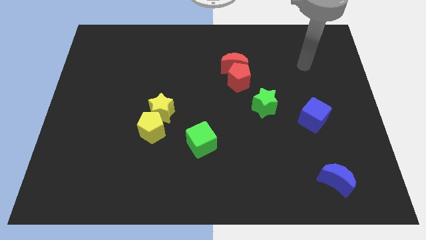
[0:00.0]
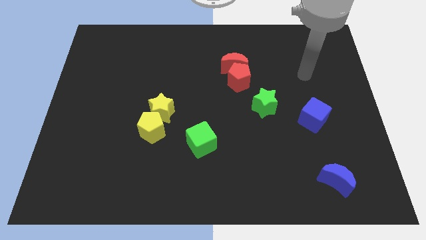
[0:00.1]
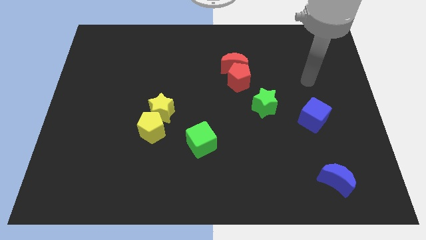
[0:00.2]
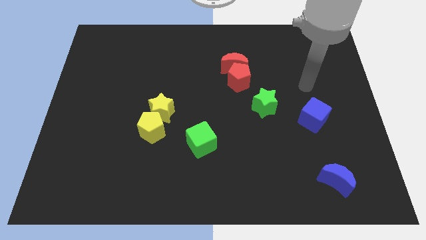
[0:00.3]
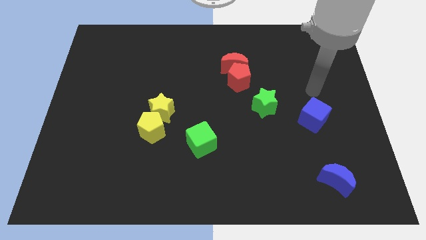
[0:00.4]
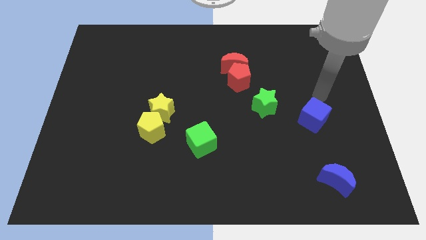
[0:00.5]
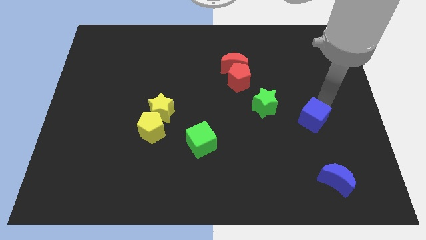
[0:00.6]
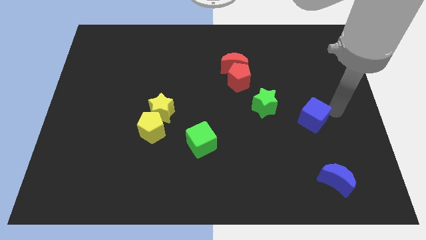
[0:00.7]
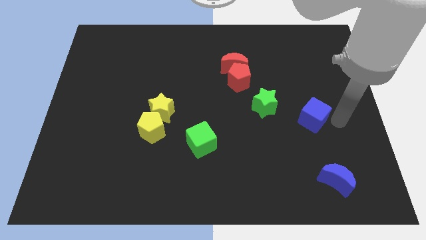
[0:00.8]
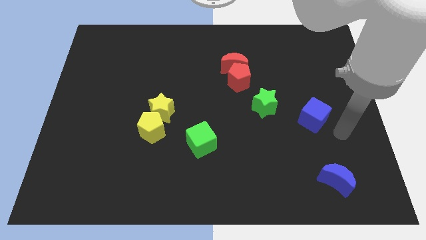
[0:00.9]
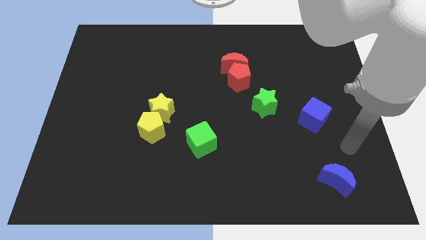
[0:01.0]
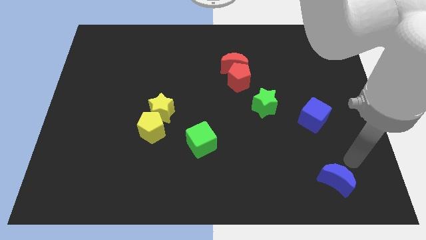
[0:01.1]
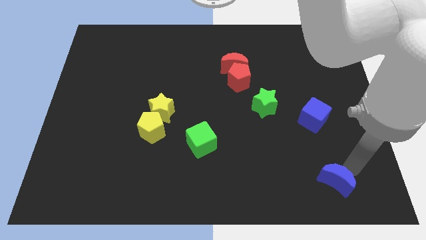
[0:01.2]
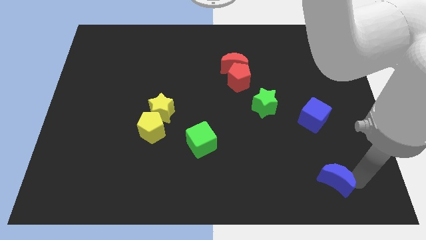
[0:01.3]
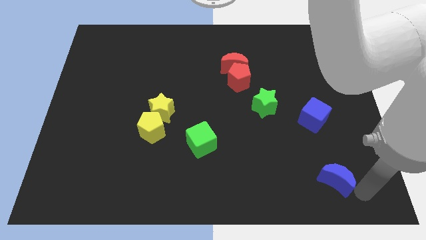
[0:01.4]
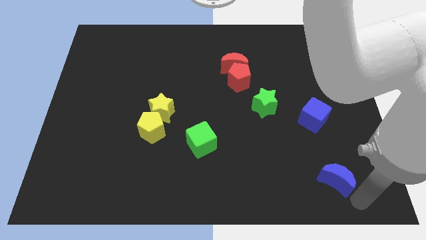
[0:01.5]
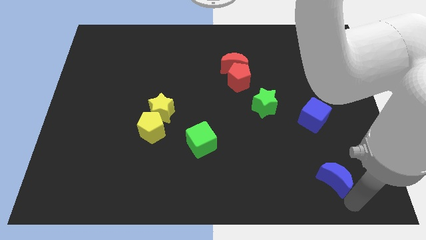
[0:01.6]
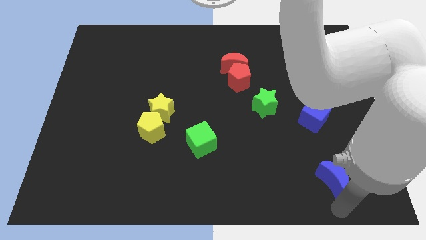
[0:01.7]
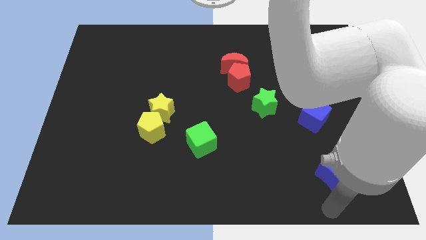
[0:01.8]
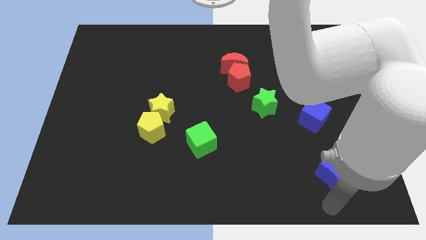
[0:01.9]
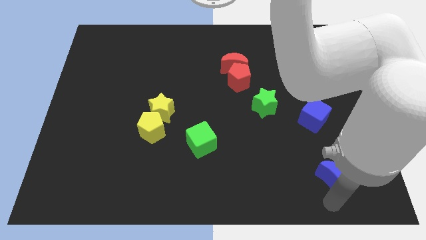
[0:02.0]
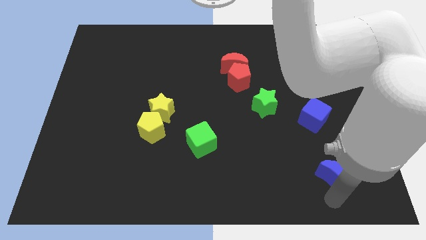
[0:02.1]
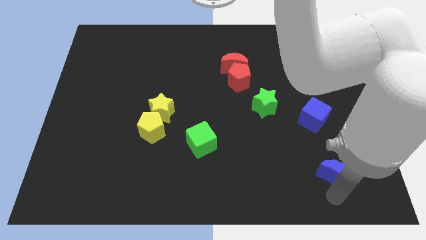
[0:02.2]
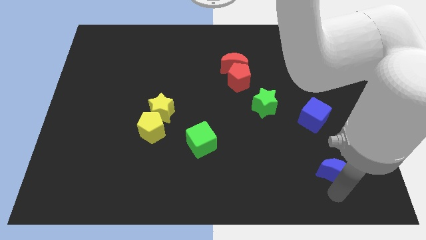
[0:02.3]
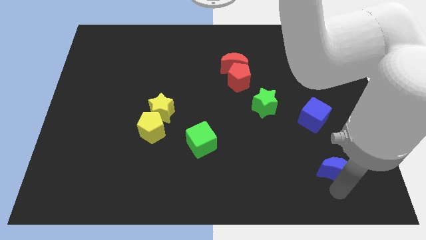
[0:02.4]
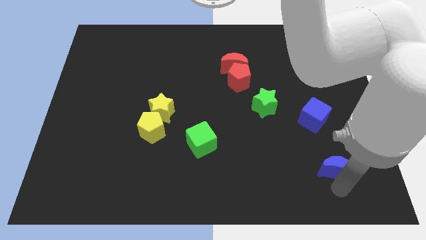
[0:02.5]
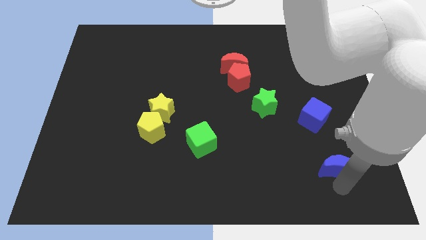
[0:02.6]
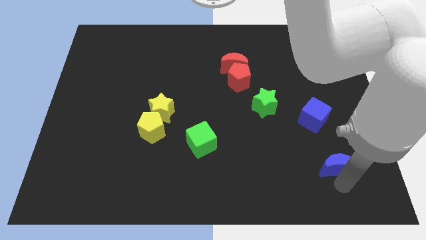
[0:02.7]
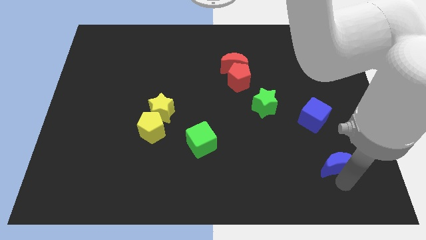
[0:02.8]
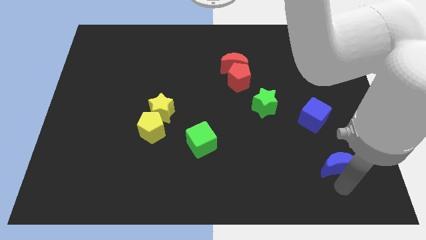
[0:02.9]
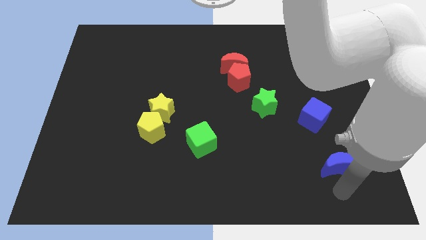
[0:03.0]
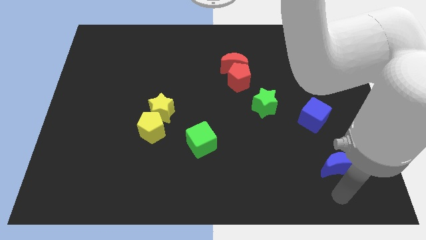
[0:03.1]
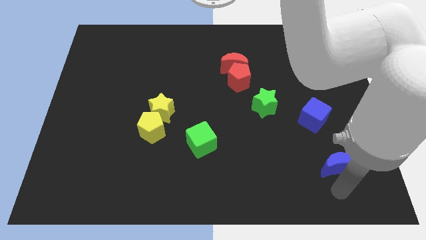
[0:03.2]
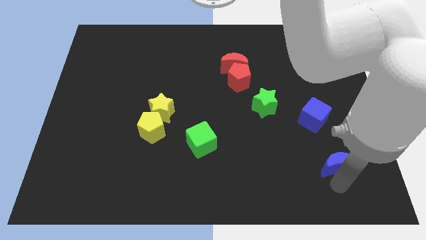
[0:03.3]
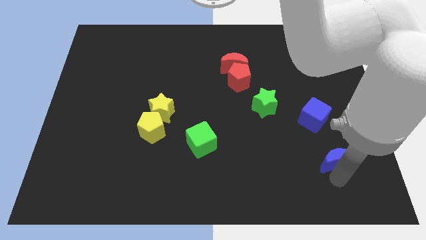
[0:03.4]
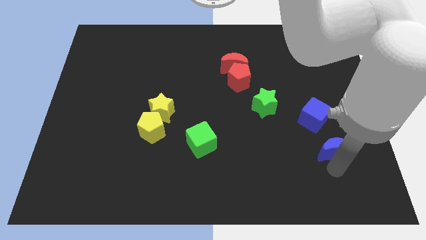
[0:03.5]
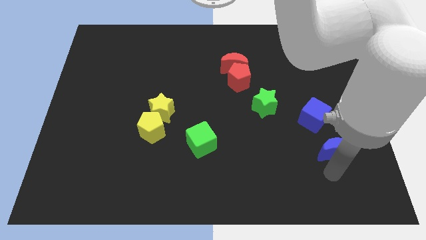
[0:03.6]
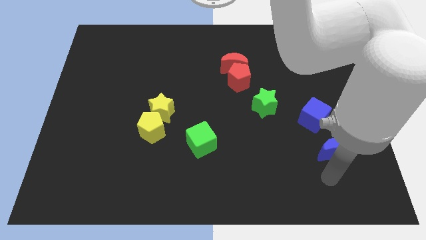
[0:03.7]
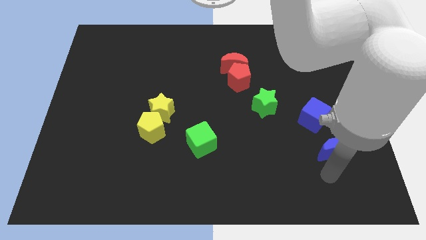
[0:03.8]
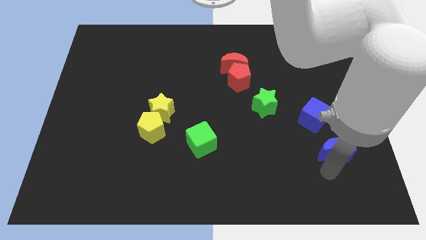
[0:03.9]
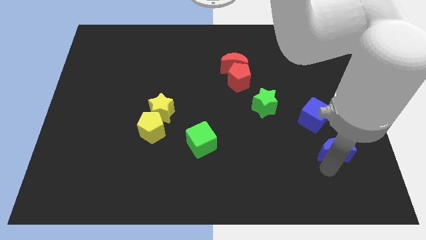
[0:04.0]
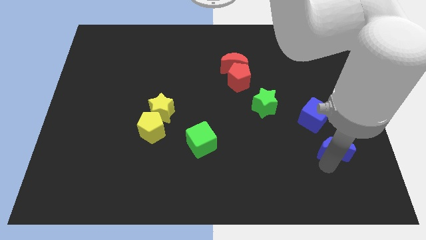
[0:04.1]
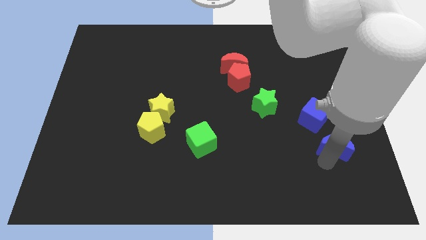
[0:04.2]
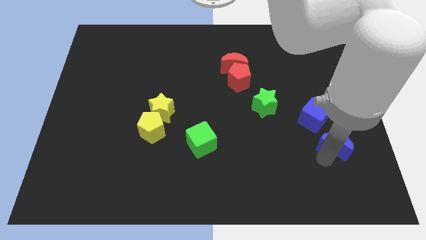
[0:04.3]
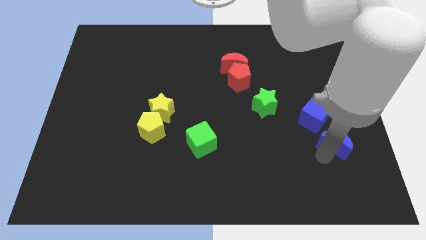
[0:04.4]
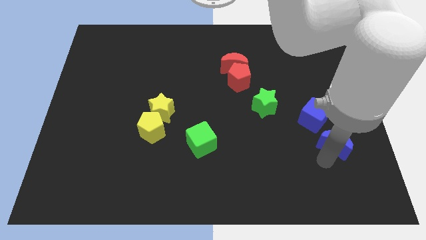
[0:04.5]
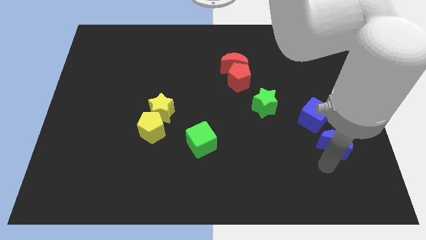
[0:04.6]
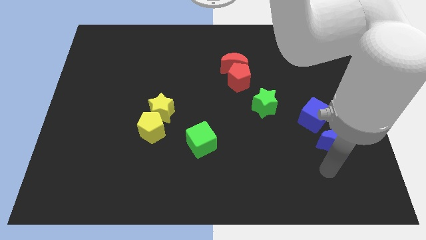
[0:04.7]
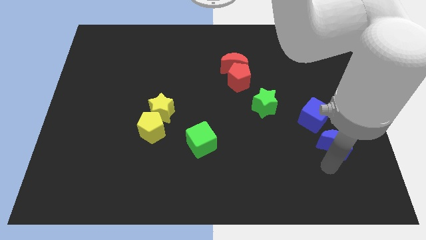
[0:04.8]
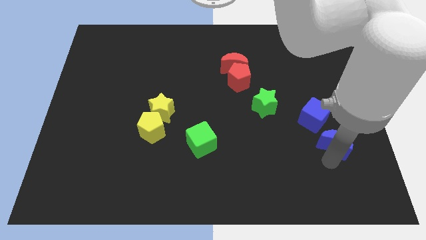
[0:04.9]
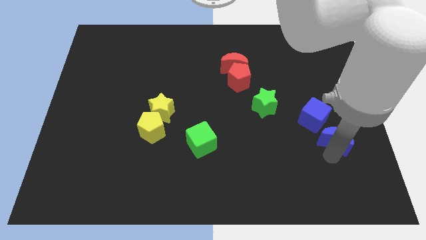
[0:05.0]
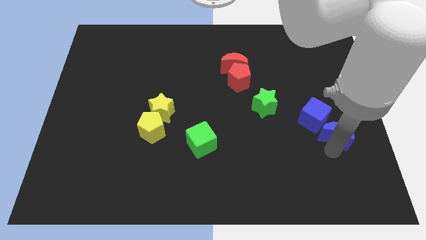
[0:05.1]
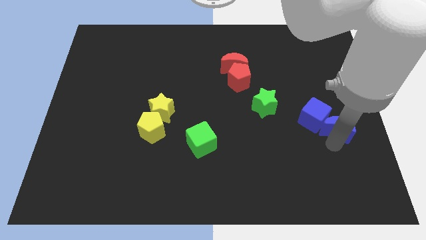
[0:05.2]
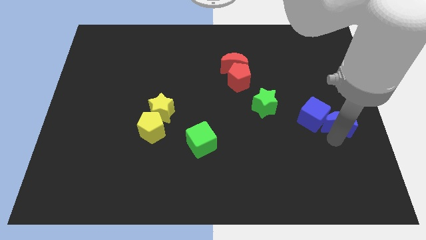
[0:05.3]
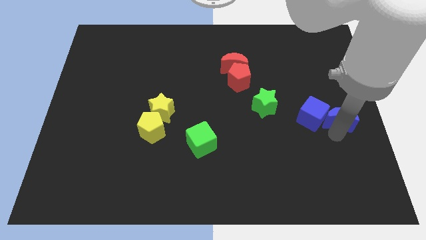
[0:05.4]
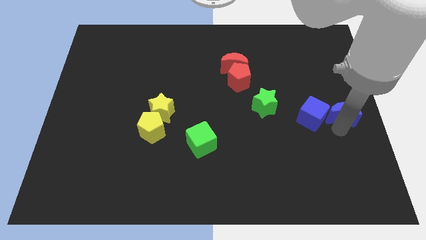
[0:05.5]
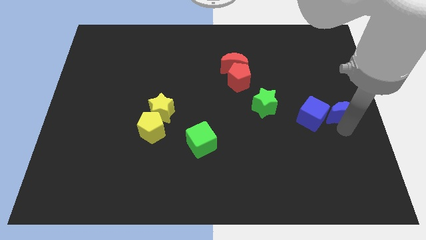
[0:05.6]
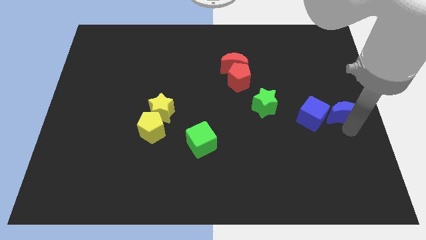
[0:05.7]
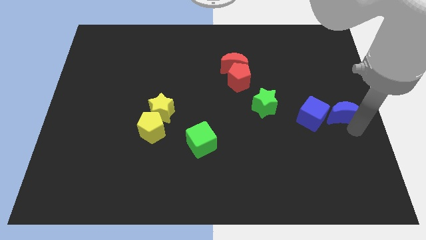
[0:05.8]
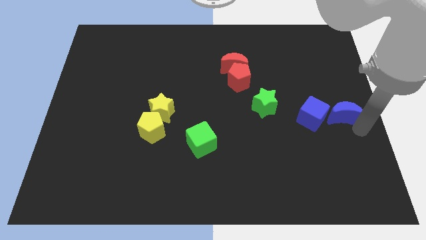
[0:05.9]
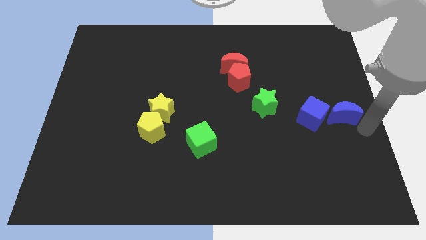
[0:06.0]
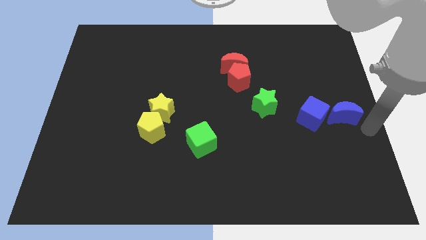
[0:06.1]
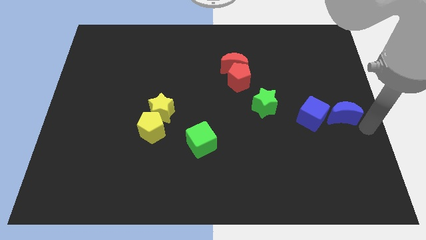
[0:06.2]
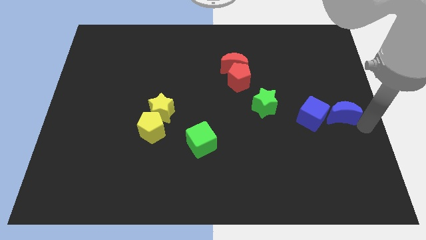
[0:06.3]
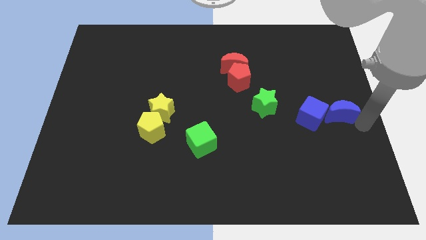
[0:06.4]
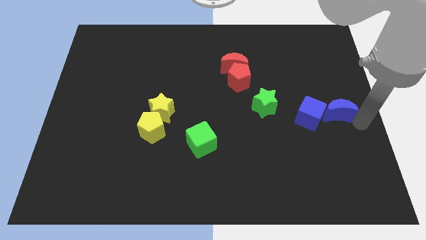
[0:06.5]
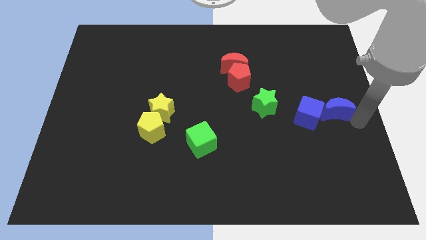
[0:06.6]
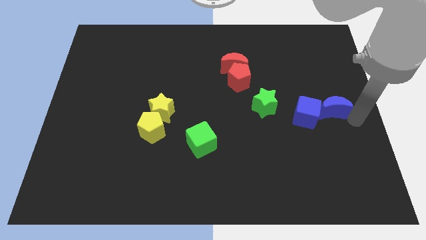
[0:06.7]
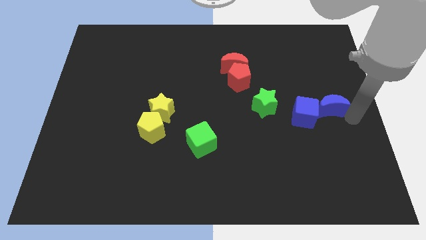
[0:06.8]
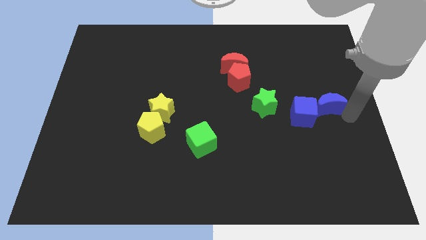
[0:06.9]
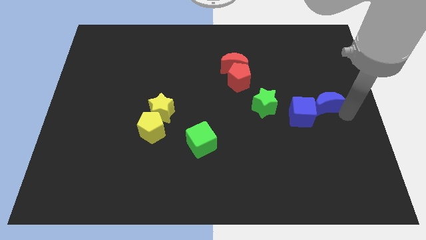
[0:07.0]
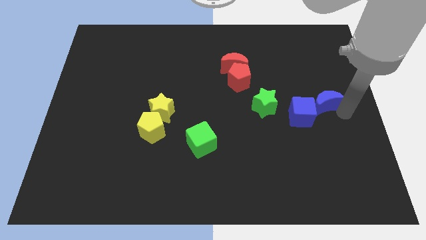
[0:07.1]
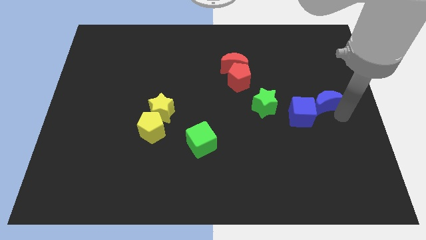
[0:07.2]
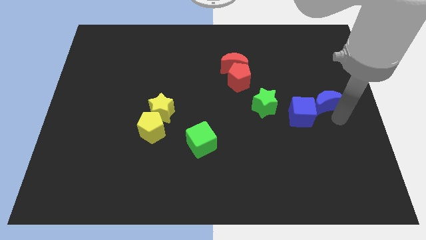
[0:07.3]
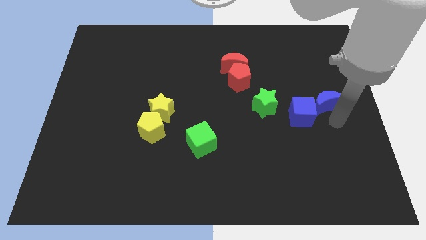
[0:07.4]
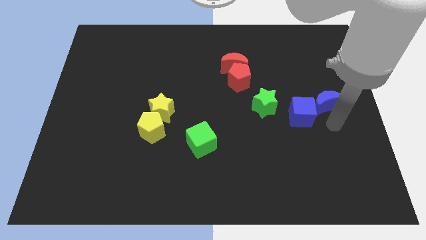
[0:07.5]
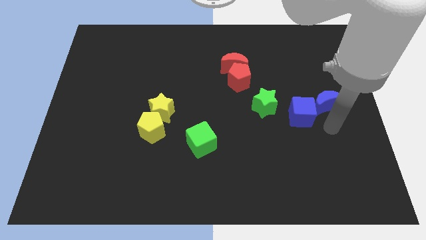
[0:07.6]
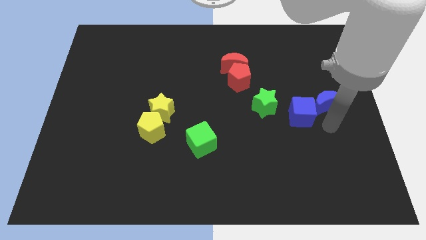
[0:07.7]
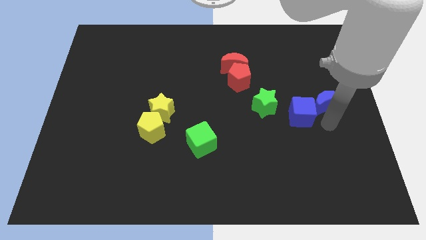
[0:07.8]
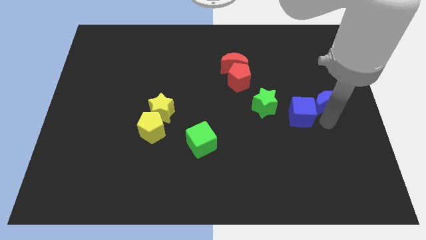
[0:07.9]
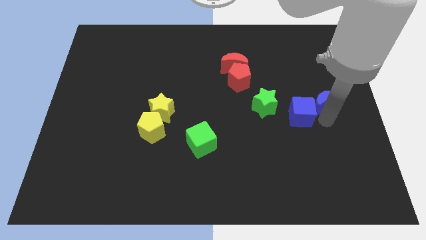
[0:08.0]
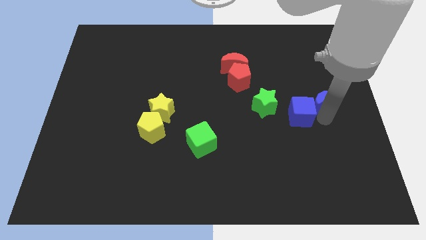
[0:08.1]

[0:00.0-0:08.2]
move the blue moon upwards
